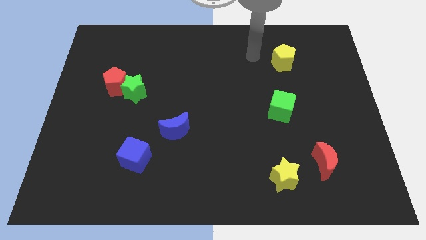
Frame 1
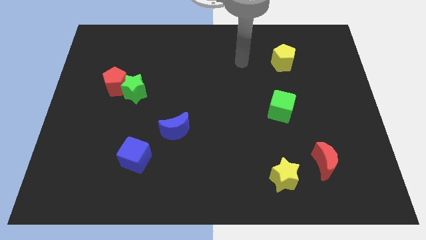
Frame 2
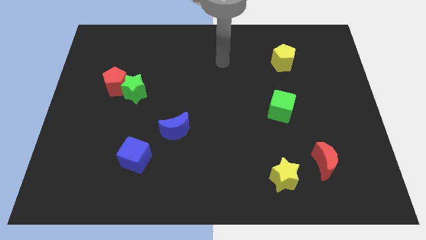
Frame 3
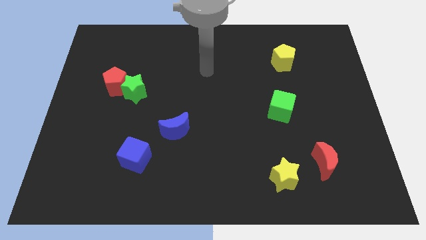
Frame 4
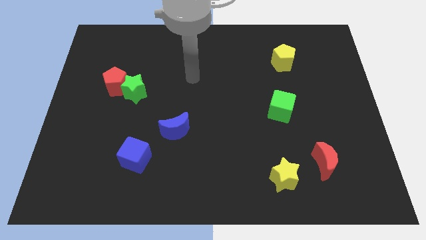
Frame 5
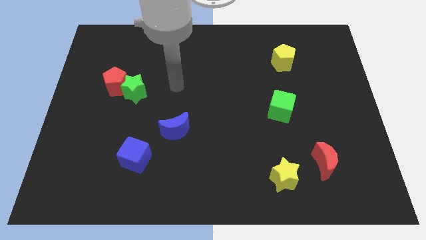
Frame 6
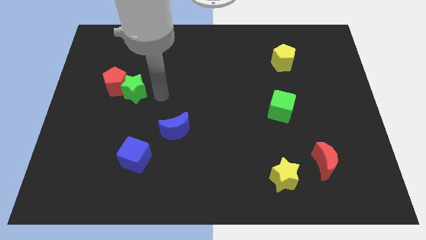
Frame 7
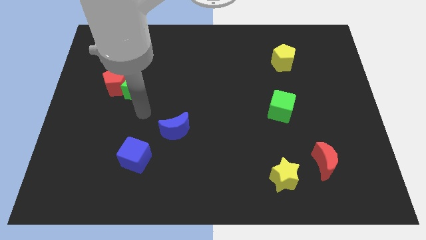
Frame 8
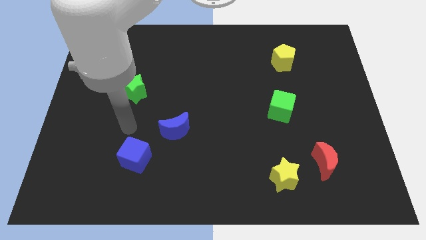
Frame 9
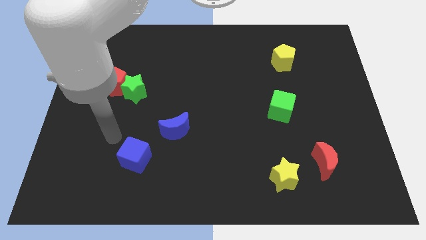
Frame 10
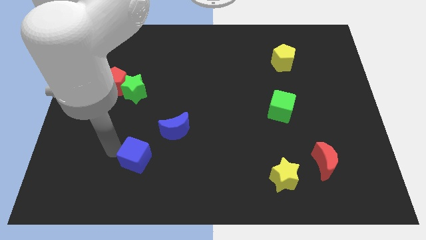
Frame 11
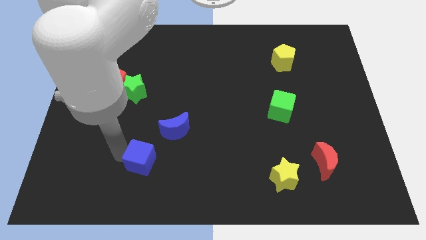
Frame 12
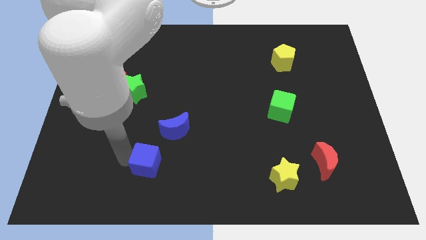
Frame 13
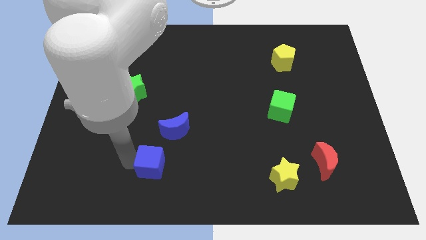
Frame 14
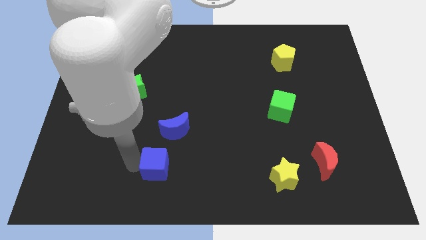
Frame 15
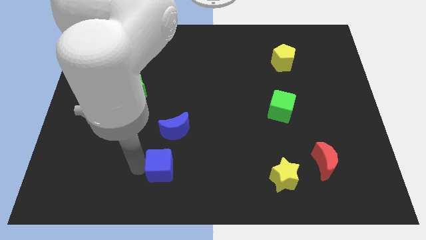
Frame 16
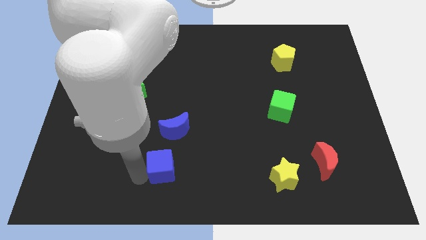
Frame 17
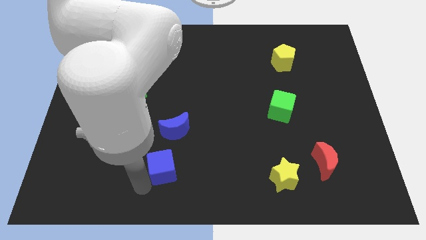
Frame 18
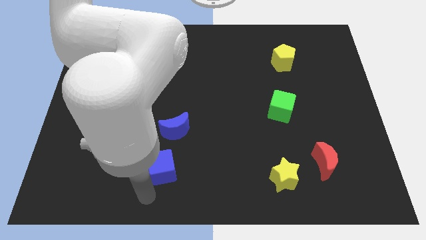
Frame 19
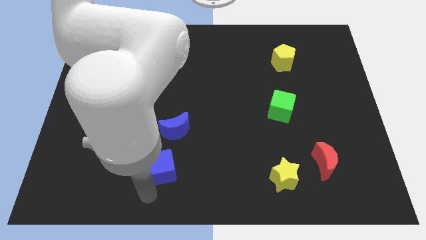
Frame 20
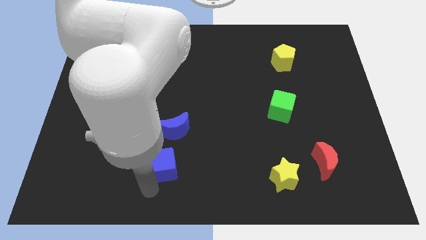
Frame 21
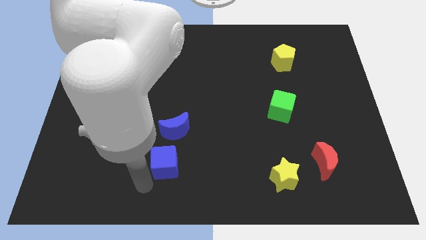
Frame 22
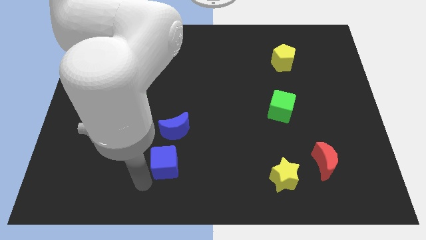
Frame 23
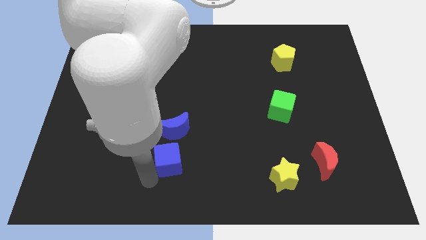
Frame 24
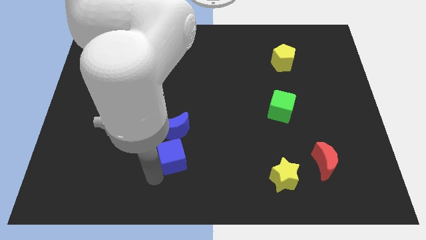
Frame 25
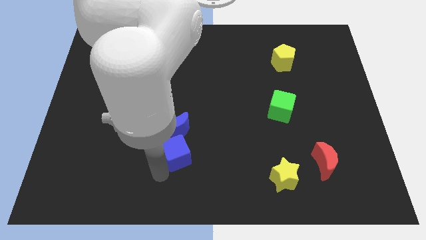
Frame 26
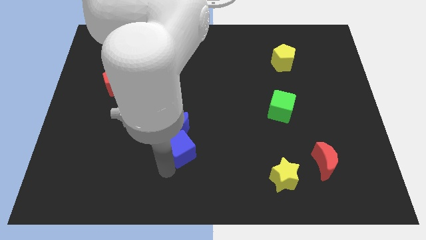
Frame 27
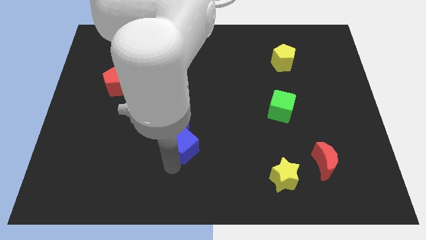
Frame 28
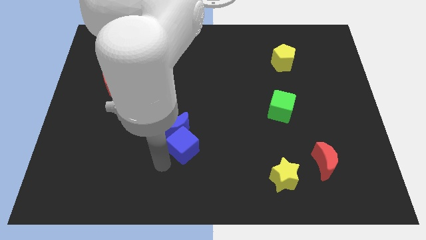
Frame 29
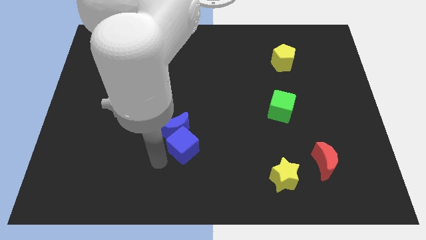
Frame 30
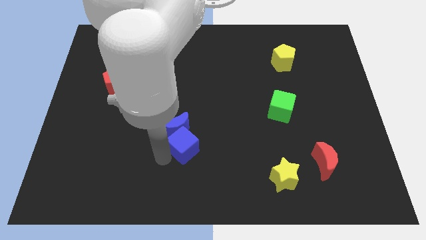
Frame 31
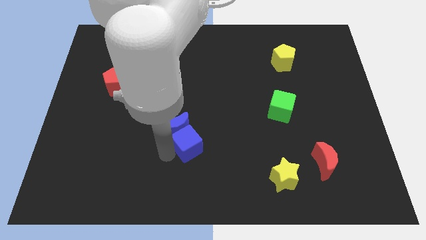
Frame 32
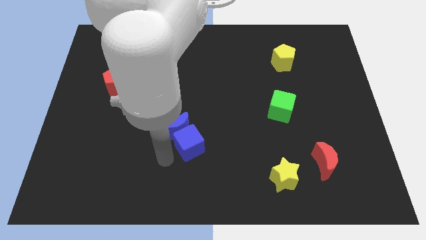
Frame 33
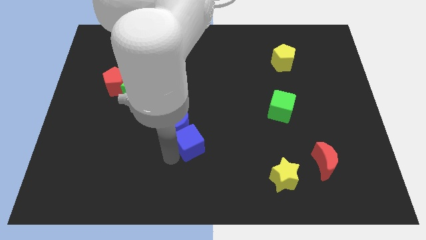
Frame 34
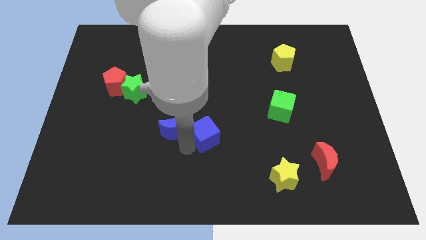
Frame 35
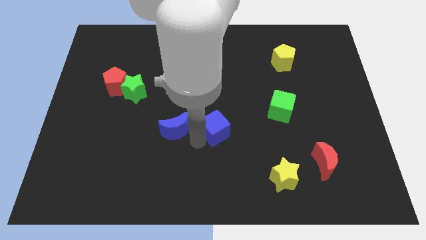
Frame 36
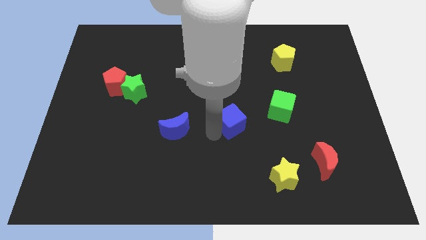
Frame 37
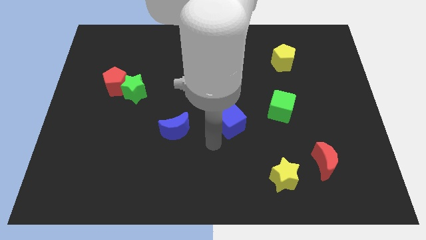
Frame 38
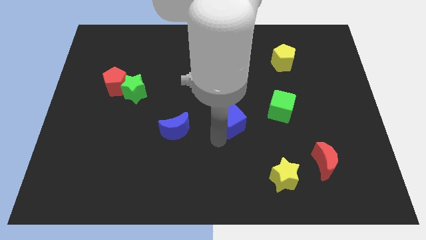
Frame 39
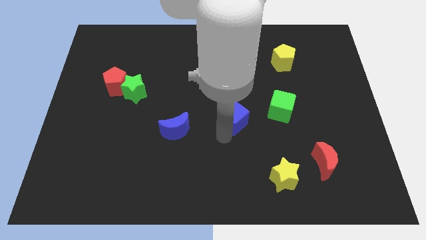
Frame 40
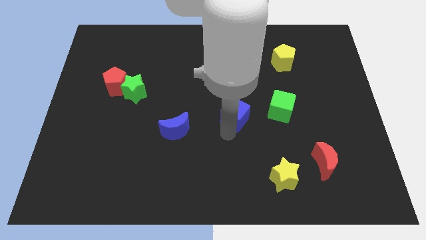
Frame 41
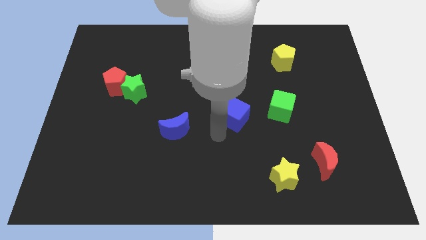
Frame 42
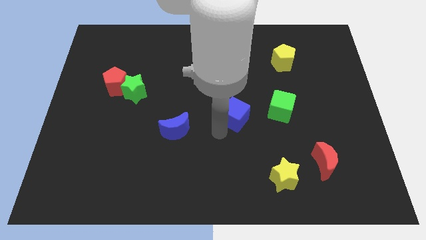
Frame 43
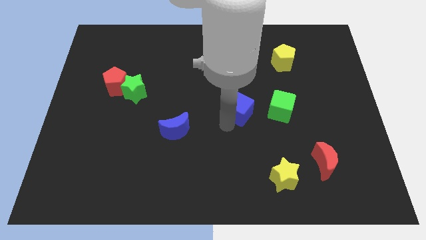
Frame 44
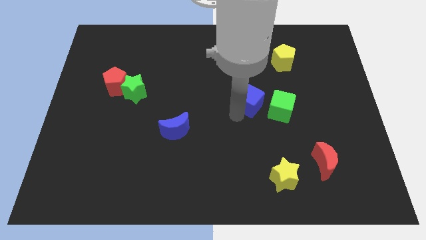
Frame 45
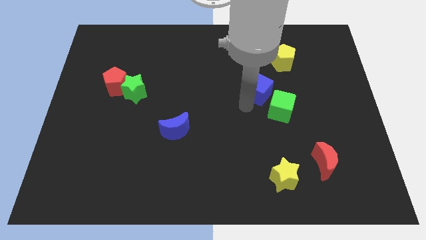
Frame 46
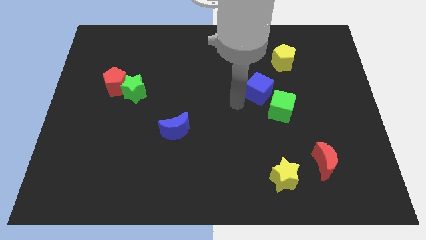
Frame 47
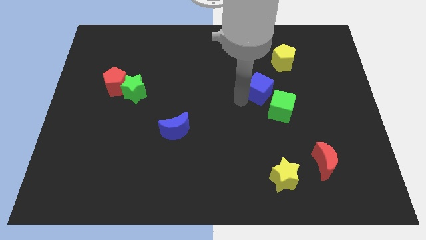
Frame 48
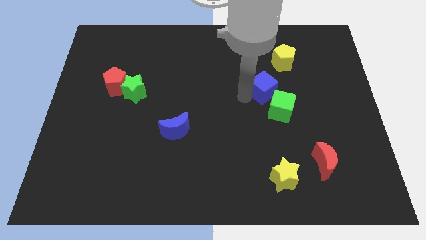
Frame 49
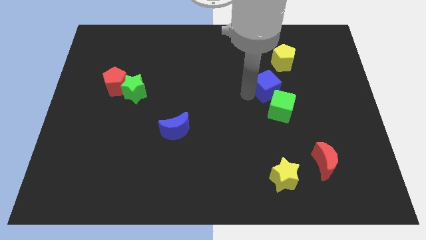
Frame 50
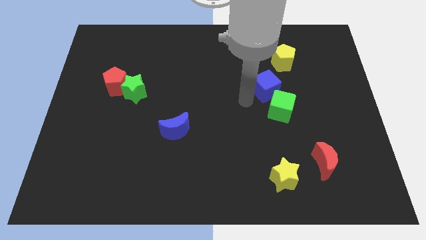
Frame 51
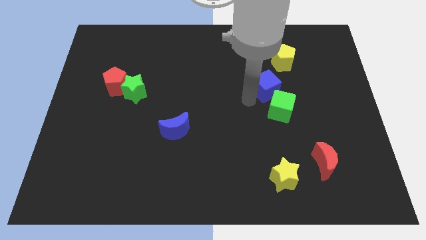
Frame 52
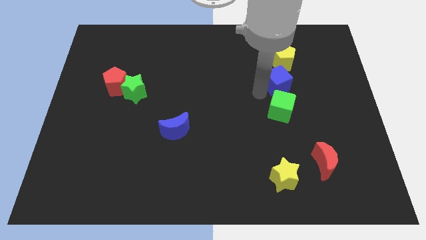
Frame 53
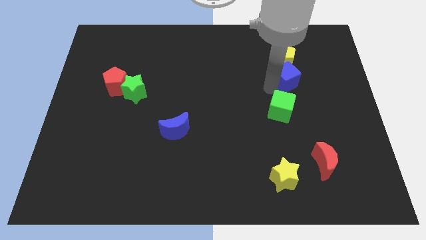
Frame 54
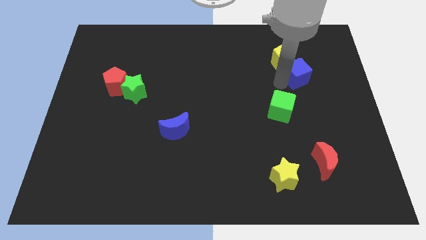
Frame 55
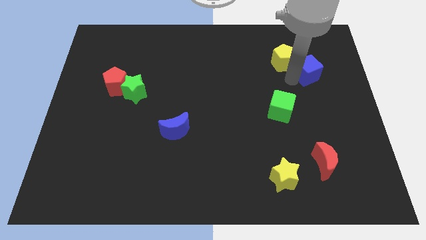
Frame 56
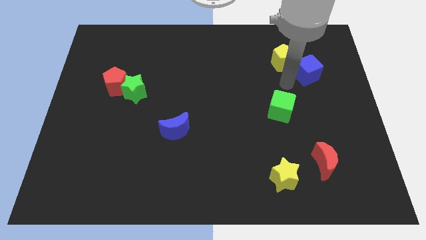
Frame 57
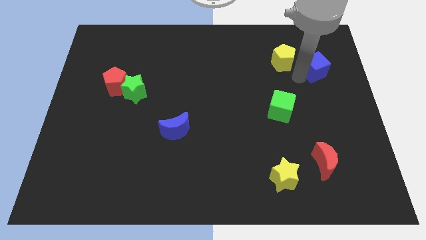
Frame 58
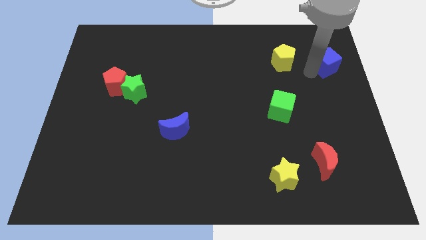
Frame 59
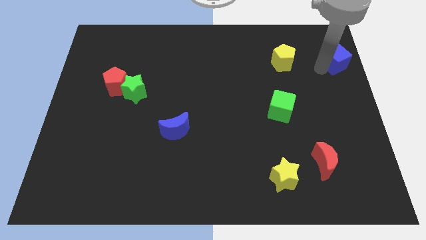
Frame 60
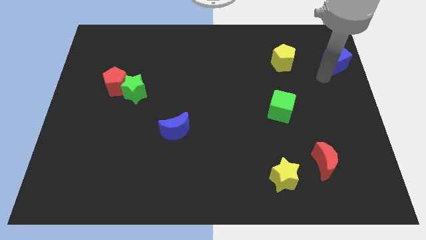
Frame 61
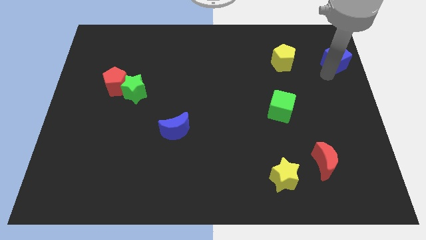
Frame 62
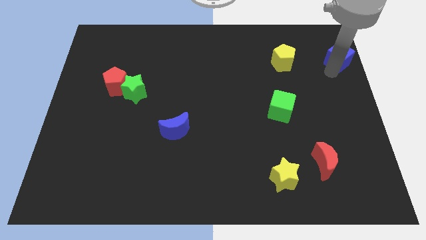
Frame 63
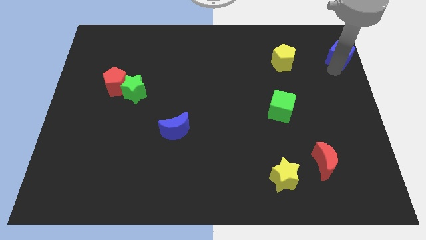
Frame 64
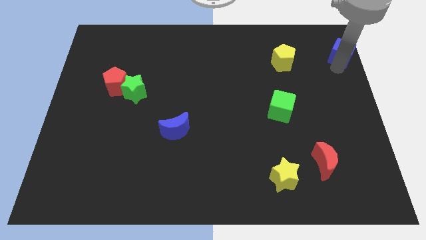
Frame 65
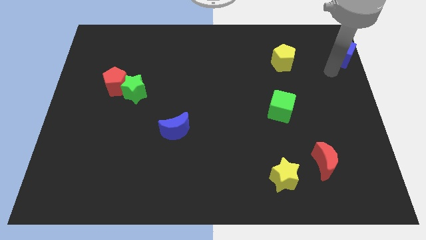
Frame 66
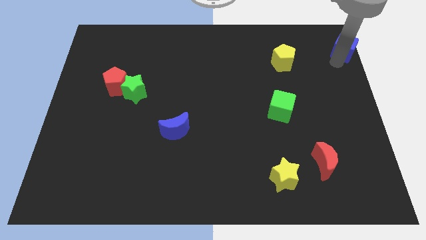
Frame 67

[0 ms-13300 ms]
slide the blue cube to the top right of the board
